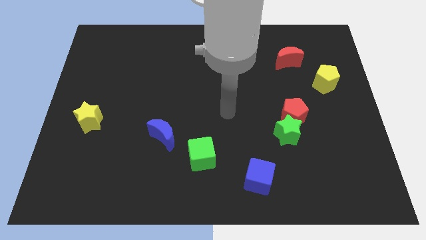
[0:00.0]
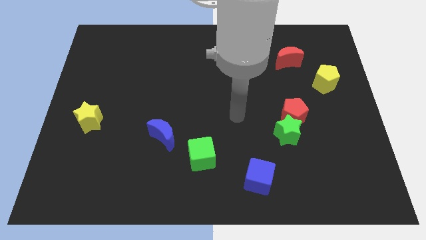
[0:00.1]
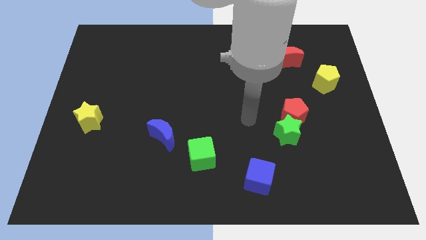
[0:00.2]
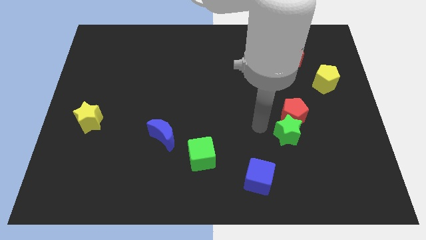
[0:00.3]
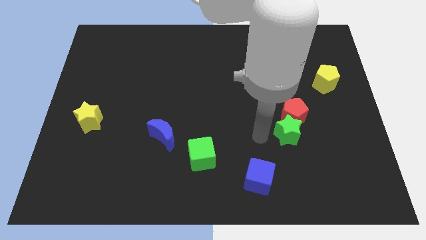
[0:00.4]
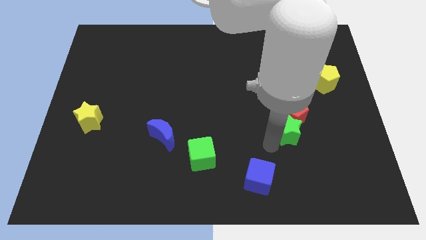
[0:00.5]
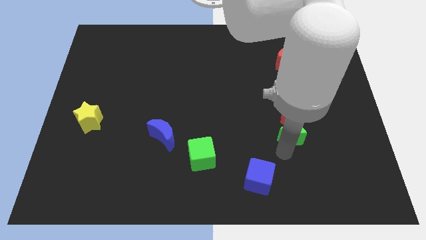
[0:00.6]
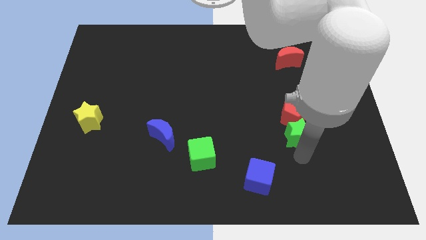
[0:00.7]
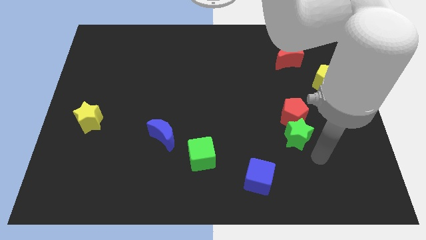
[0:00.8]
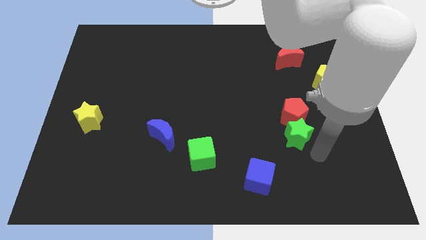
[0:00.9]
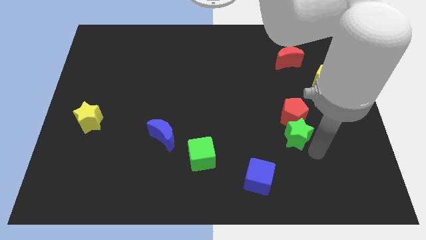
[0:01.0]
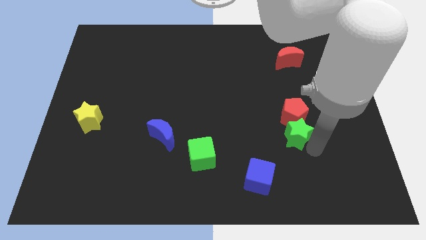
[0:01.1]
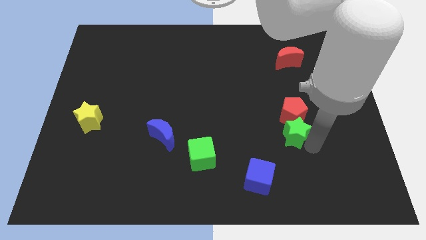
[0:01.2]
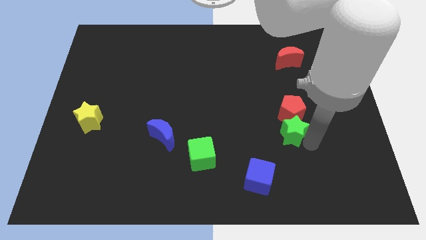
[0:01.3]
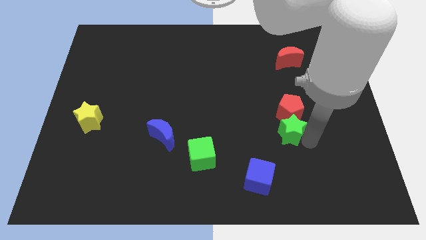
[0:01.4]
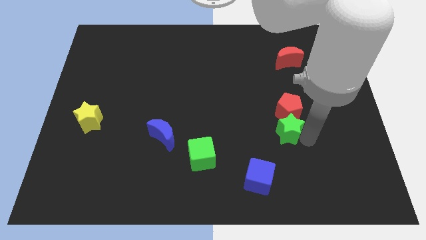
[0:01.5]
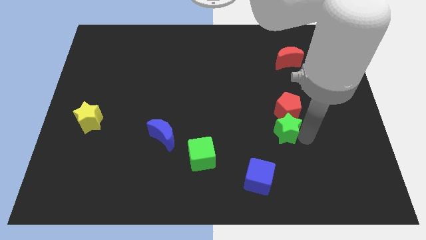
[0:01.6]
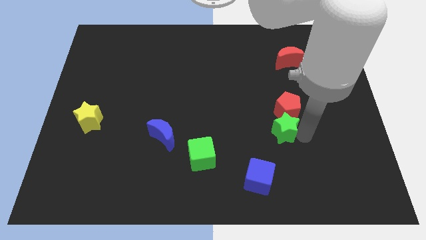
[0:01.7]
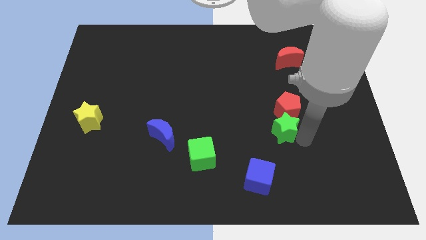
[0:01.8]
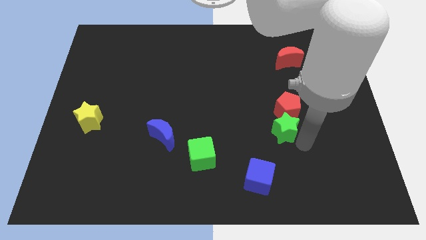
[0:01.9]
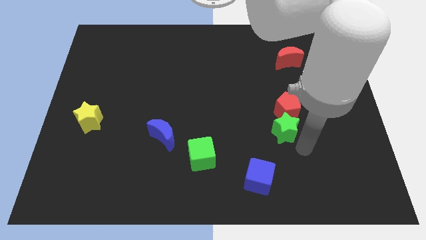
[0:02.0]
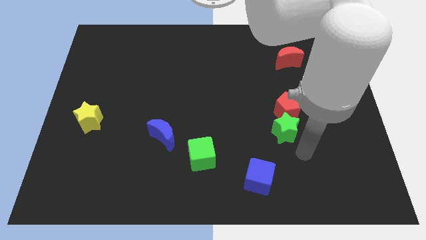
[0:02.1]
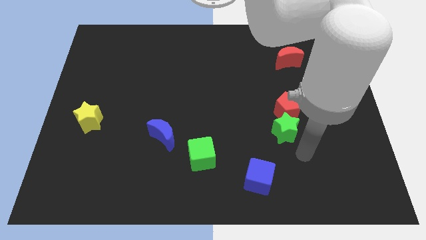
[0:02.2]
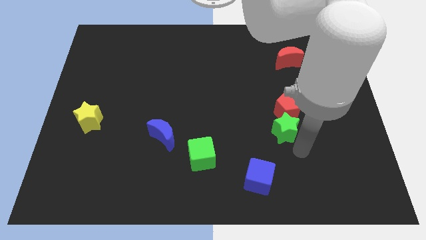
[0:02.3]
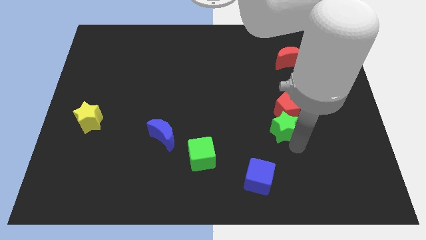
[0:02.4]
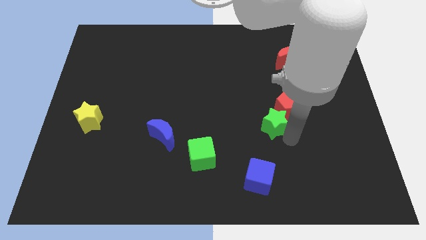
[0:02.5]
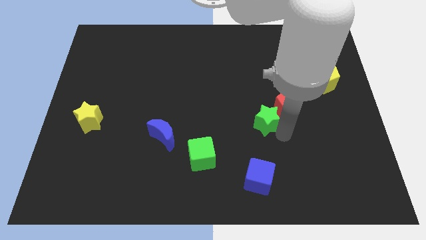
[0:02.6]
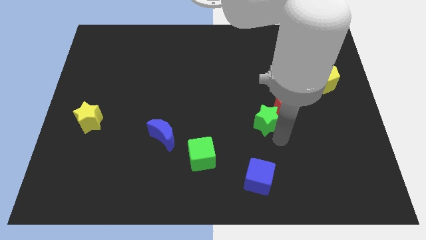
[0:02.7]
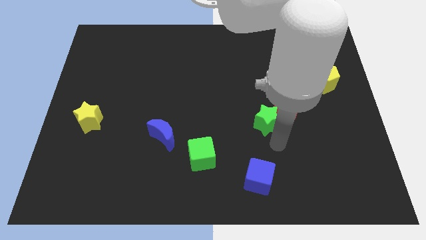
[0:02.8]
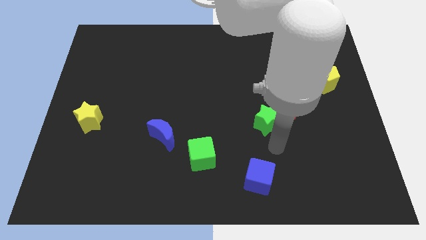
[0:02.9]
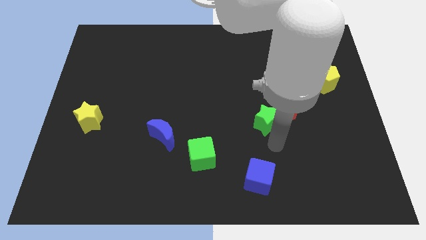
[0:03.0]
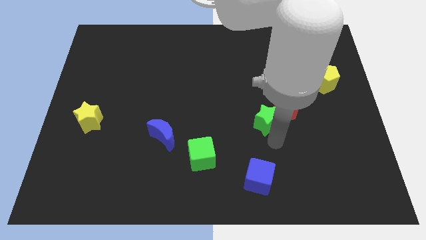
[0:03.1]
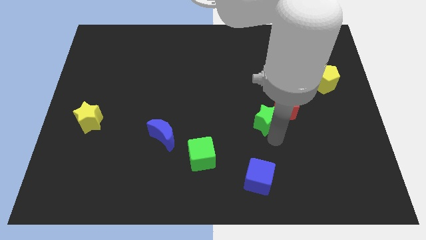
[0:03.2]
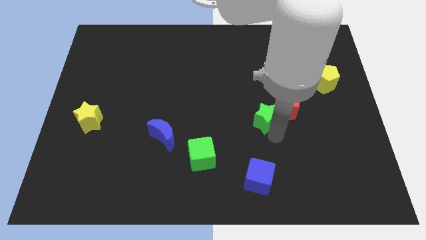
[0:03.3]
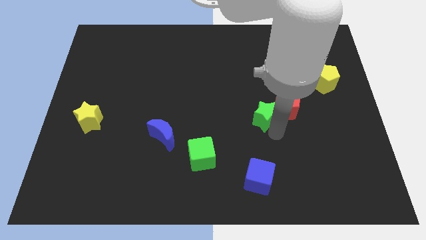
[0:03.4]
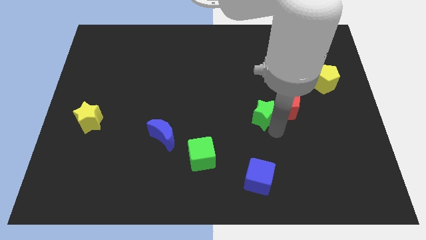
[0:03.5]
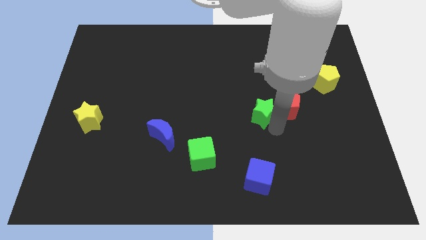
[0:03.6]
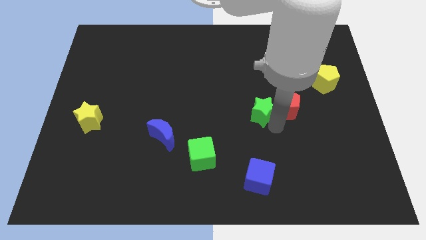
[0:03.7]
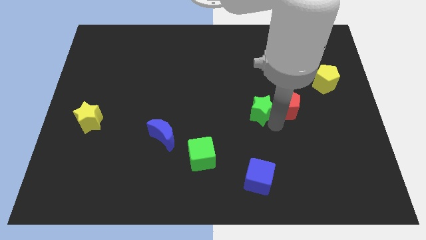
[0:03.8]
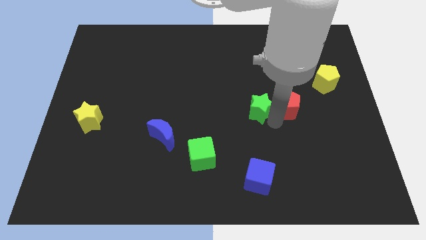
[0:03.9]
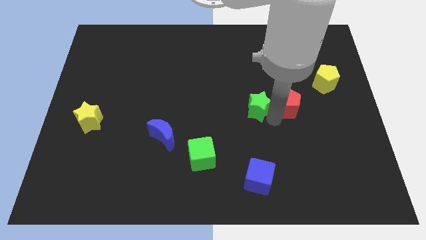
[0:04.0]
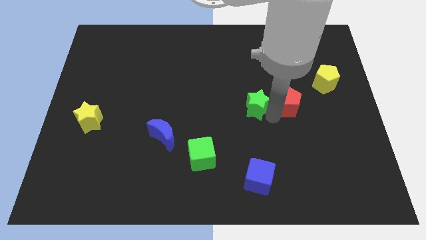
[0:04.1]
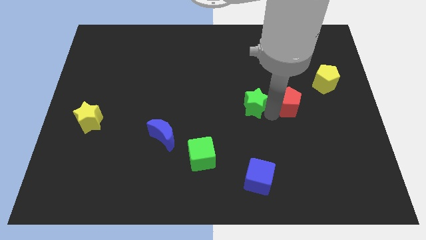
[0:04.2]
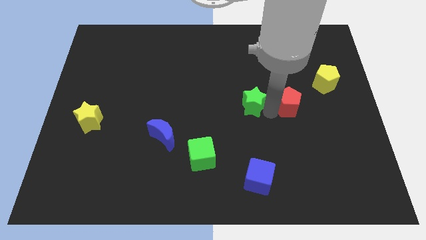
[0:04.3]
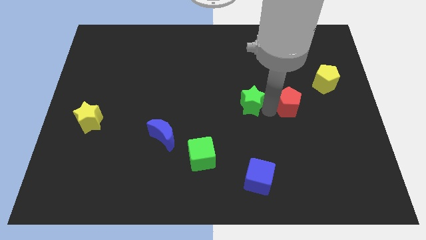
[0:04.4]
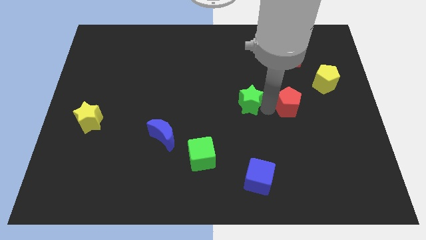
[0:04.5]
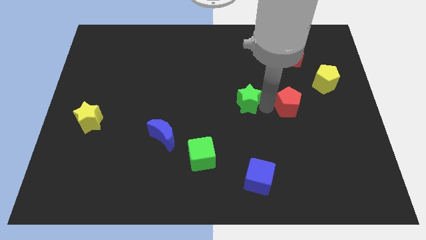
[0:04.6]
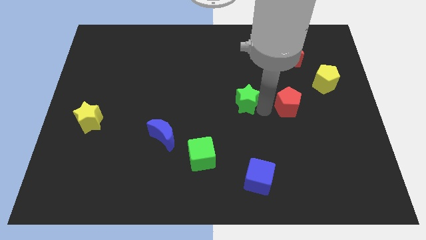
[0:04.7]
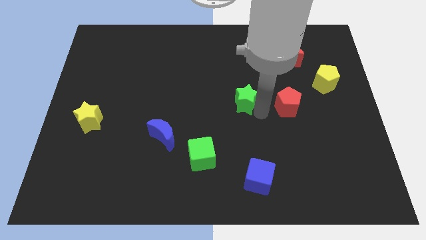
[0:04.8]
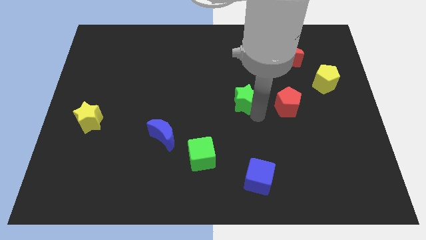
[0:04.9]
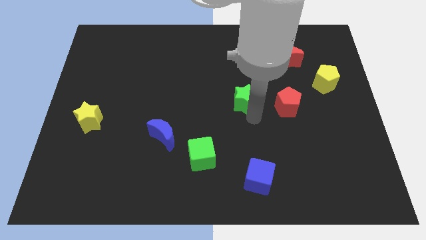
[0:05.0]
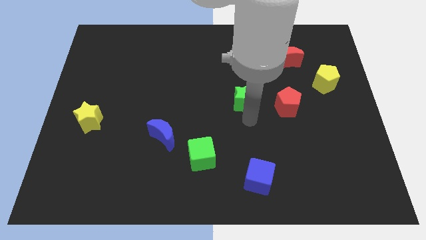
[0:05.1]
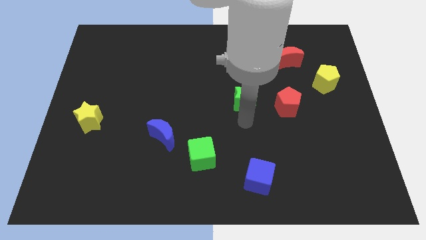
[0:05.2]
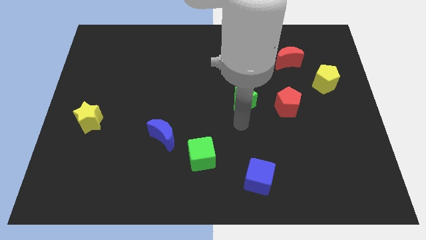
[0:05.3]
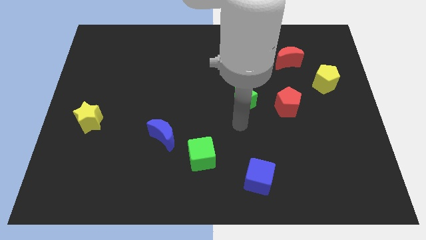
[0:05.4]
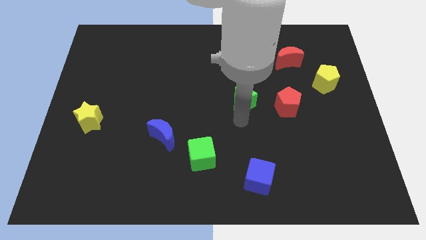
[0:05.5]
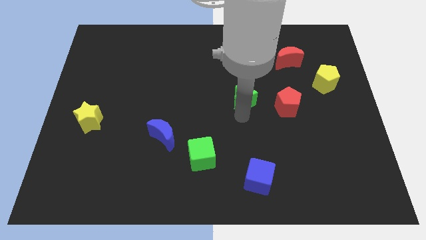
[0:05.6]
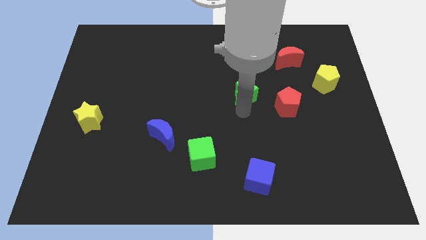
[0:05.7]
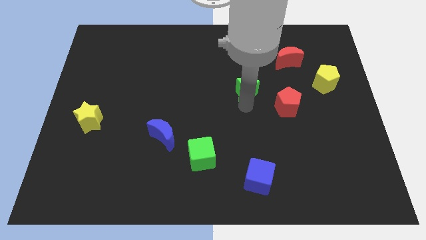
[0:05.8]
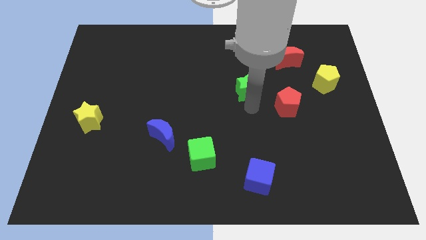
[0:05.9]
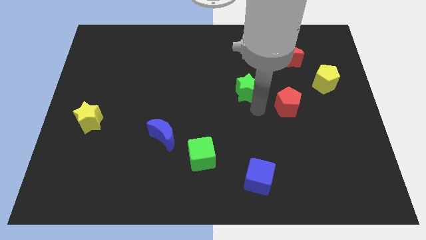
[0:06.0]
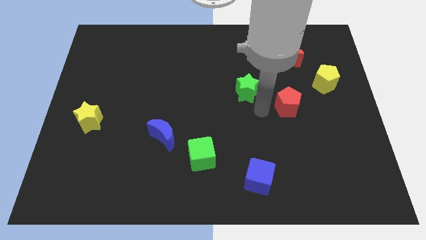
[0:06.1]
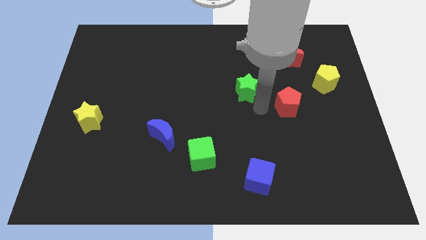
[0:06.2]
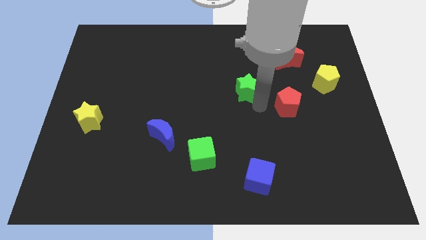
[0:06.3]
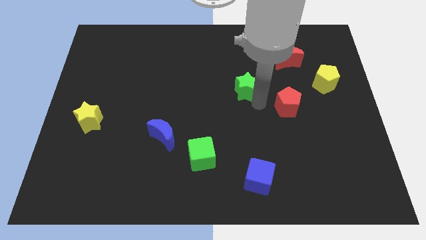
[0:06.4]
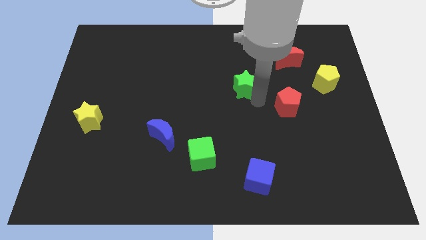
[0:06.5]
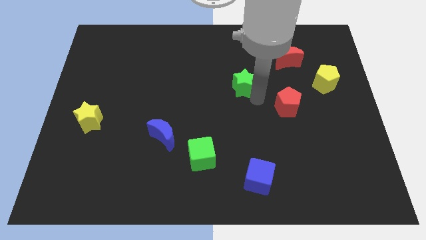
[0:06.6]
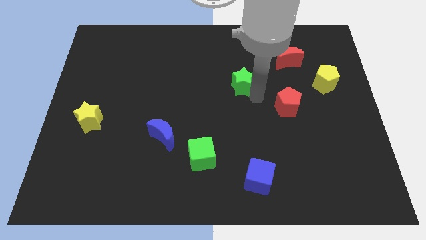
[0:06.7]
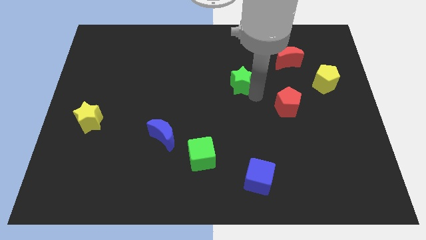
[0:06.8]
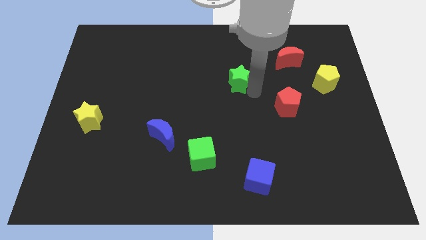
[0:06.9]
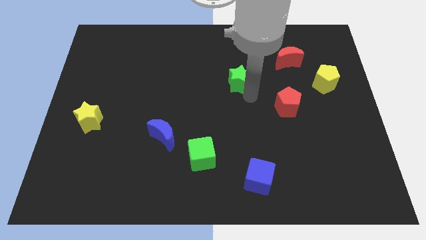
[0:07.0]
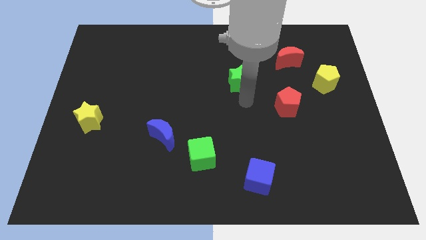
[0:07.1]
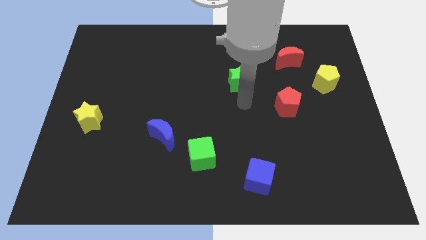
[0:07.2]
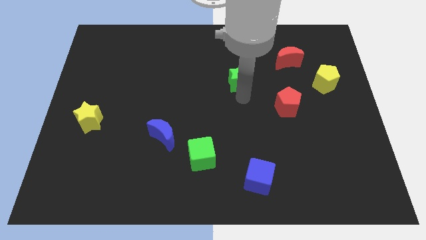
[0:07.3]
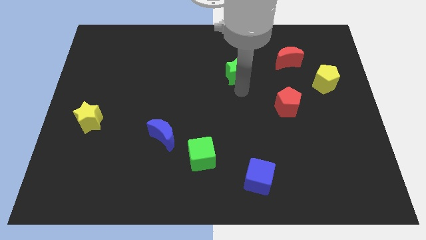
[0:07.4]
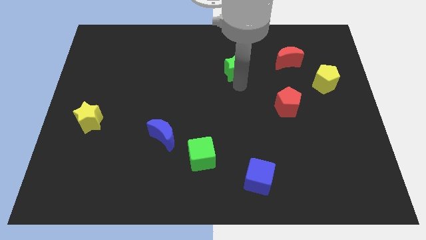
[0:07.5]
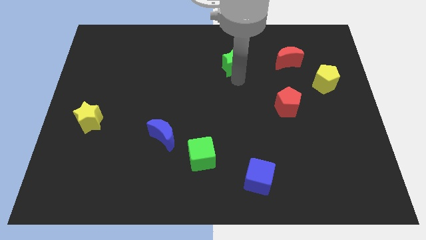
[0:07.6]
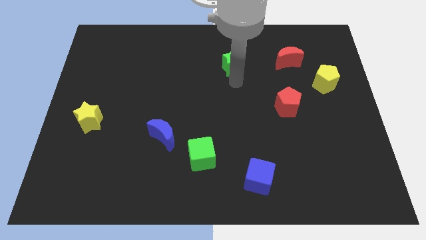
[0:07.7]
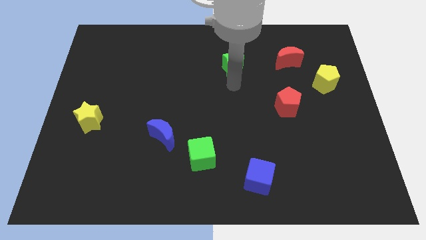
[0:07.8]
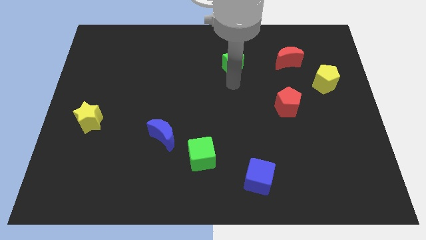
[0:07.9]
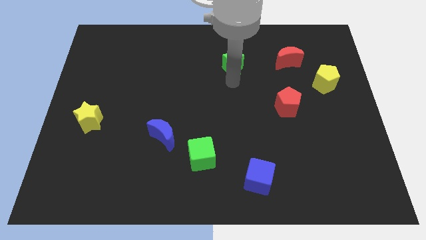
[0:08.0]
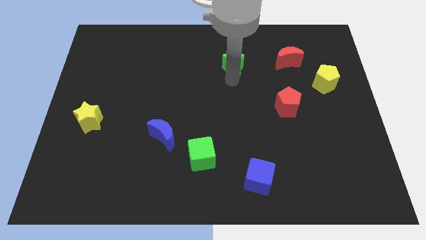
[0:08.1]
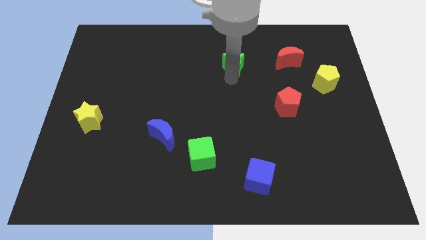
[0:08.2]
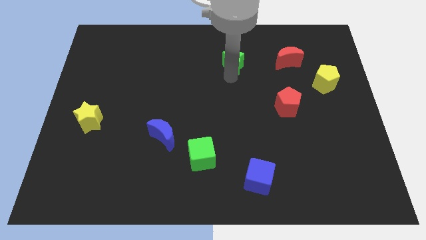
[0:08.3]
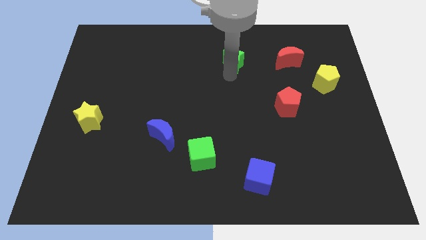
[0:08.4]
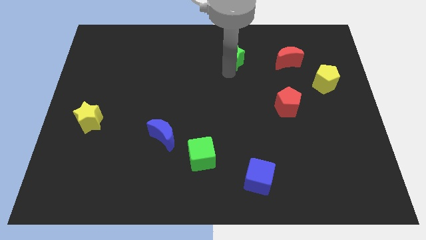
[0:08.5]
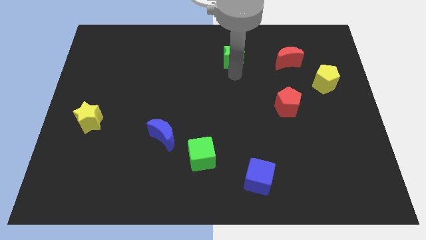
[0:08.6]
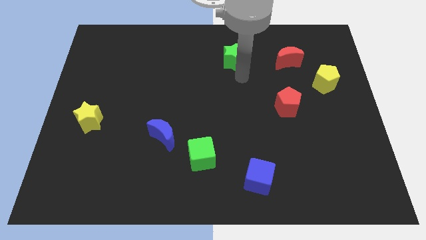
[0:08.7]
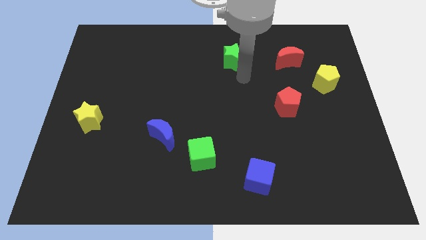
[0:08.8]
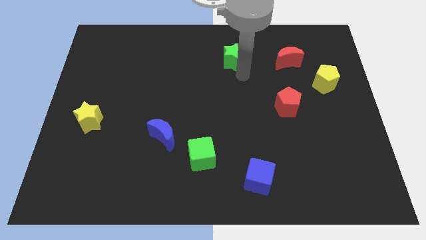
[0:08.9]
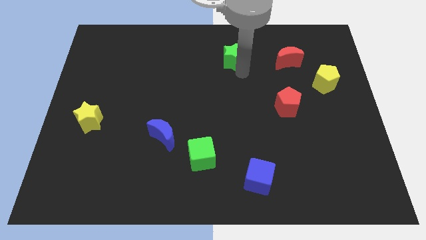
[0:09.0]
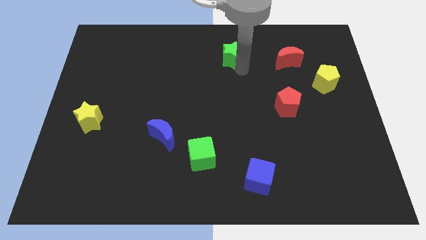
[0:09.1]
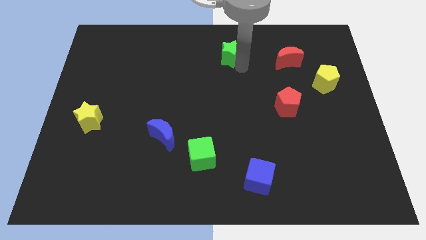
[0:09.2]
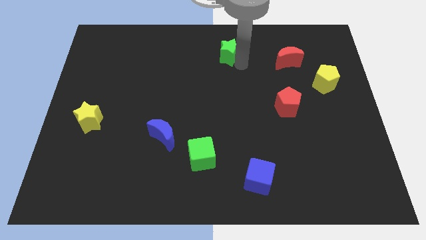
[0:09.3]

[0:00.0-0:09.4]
push the green star to the top side
